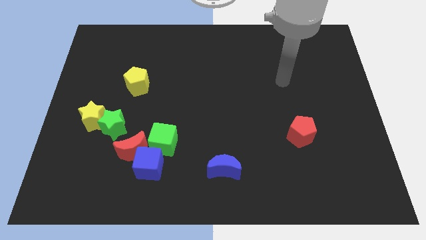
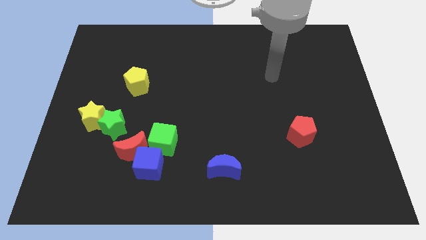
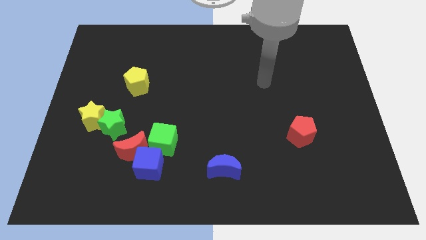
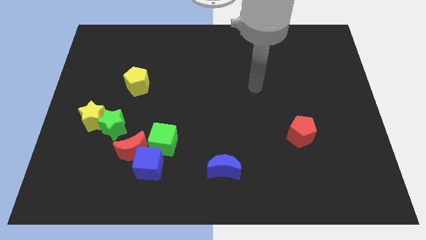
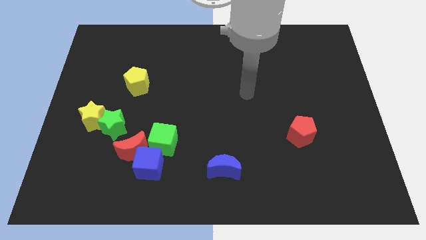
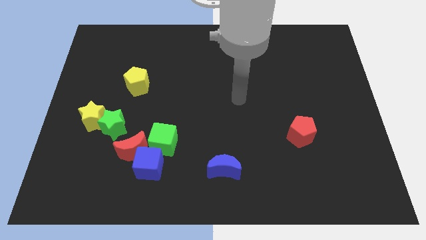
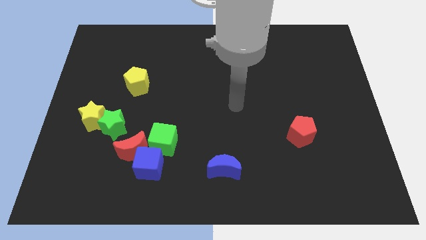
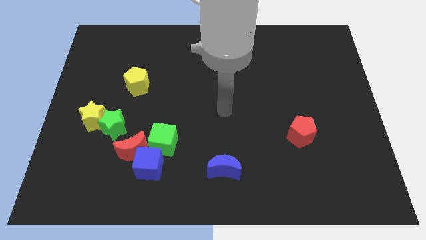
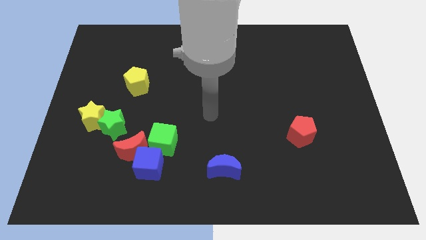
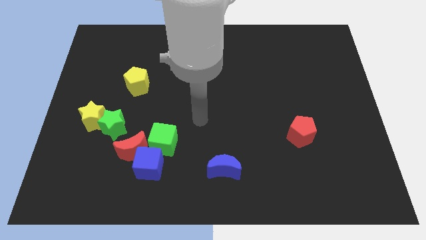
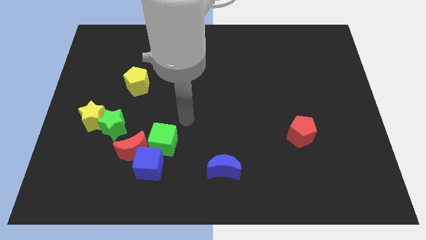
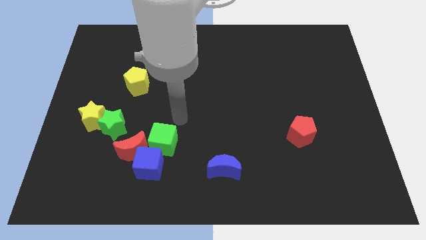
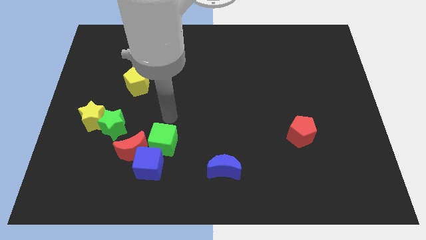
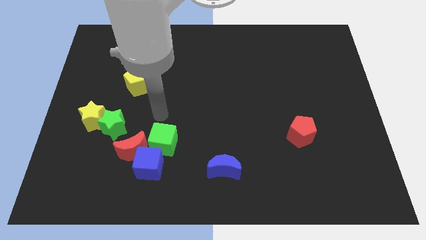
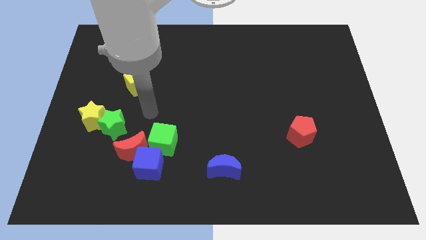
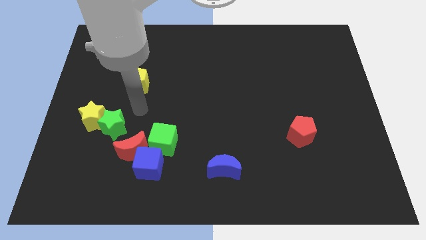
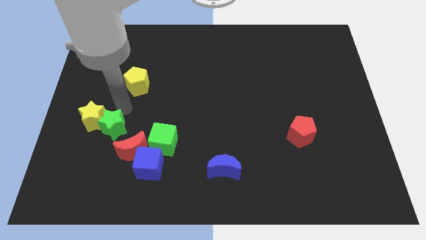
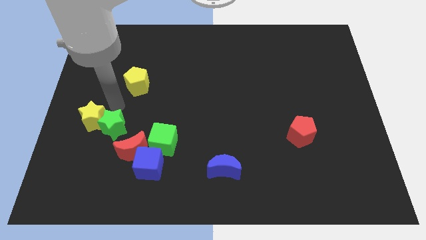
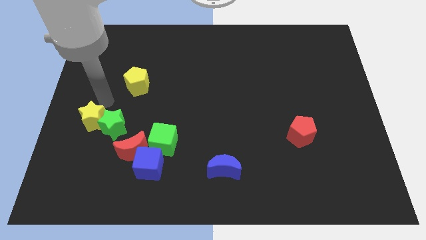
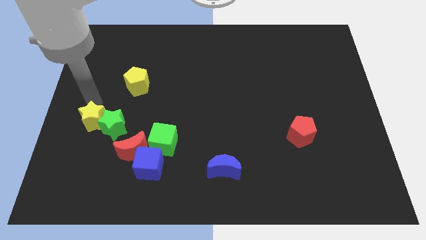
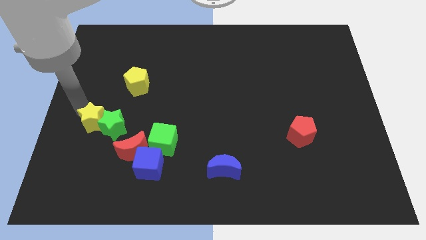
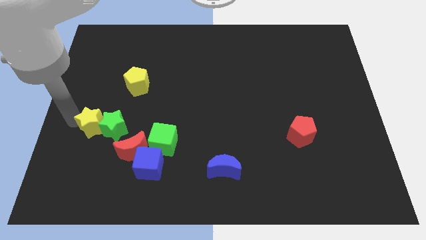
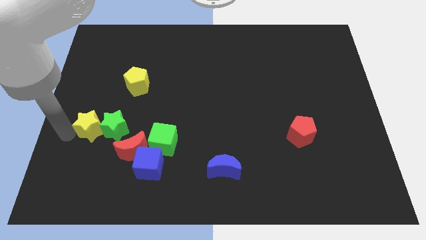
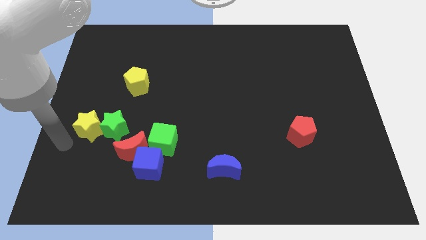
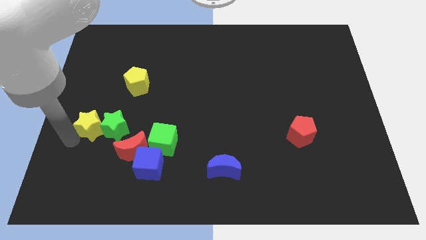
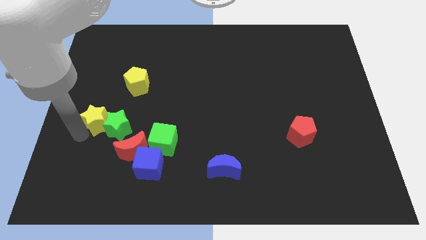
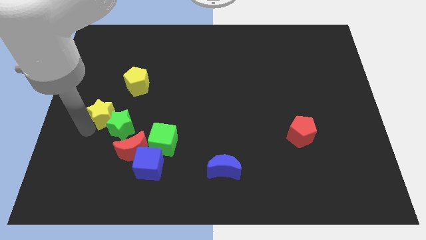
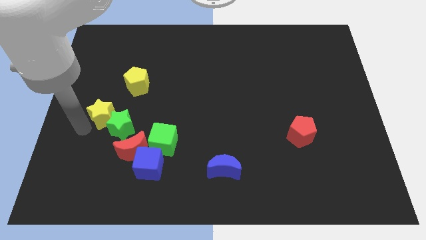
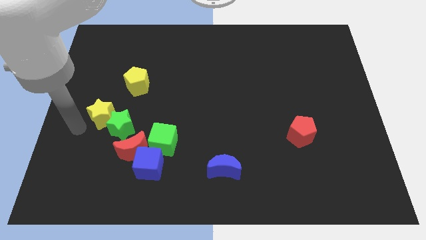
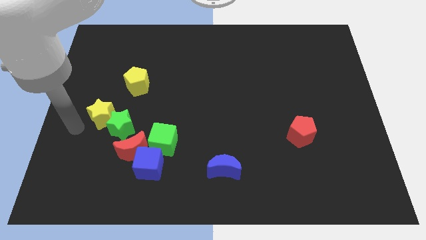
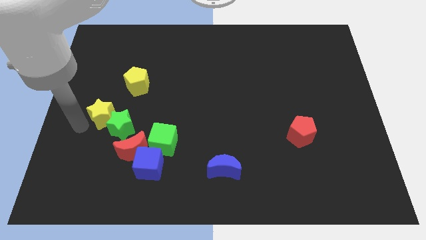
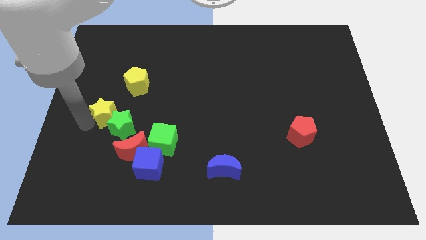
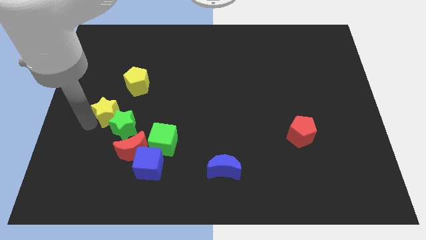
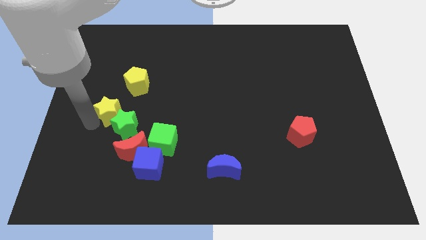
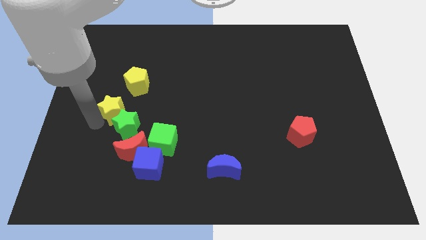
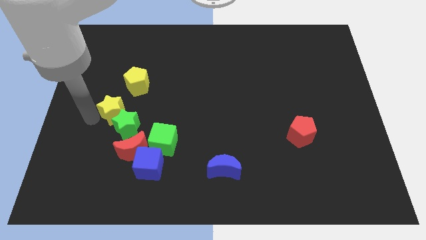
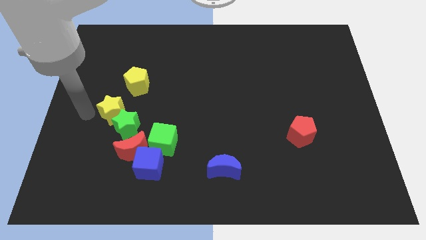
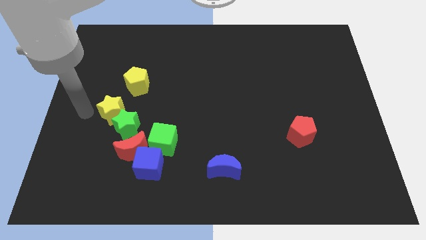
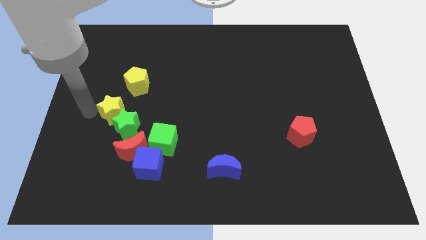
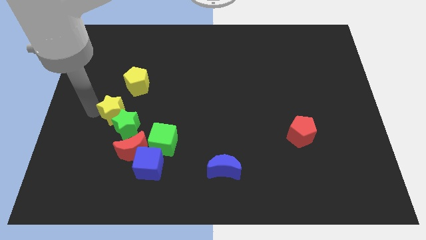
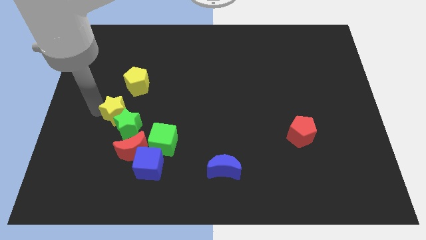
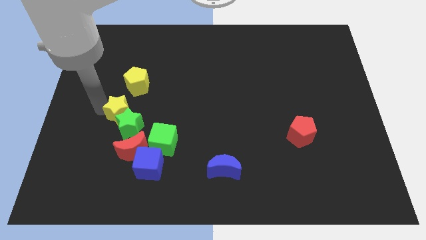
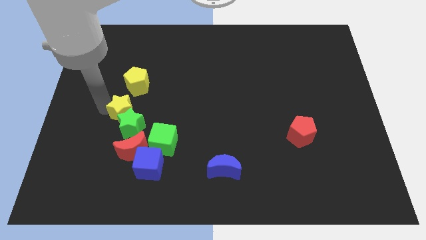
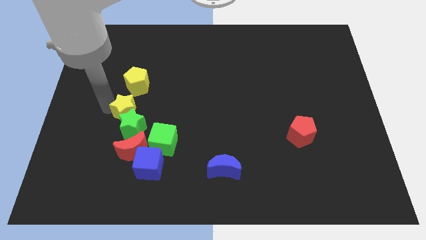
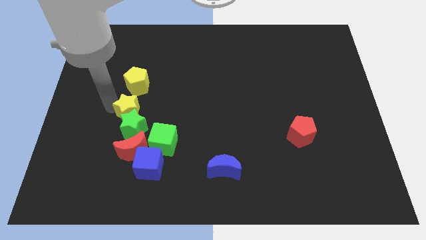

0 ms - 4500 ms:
slightly move the yellow star right

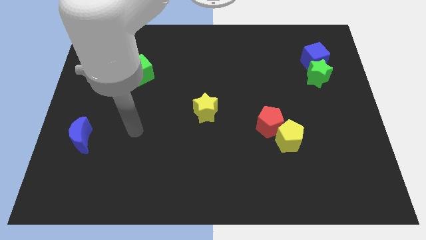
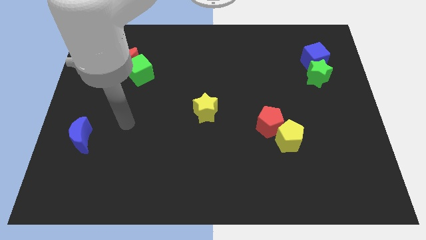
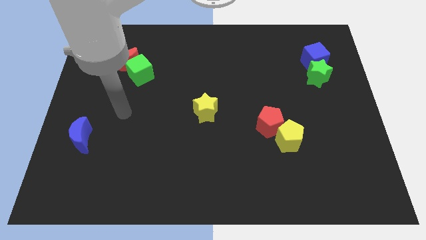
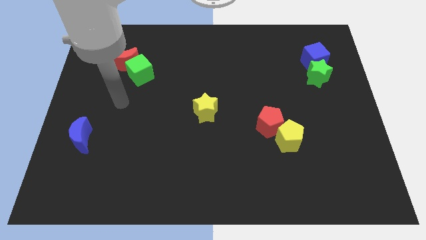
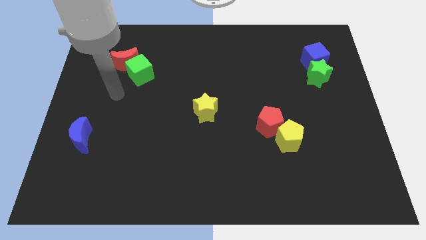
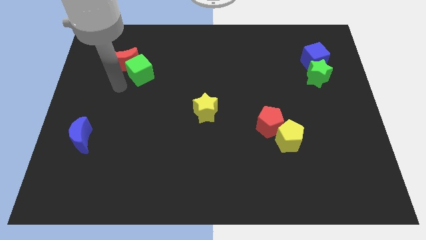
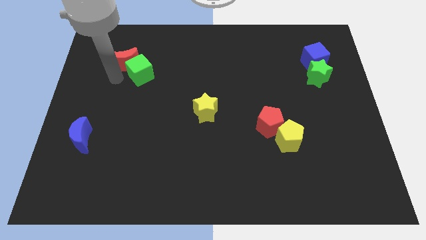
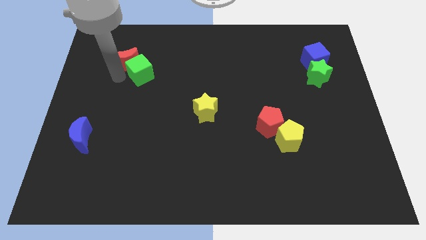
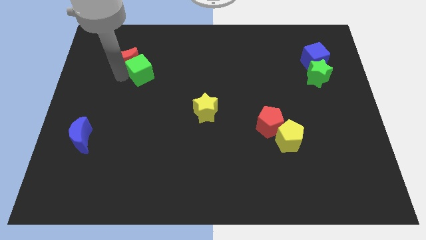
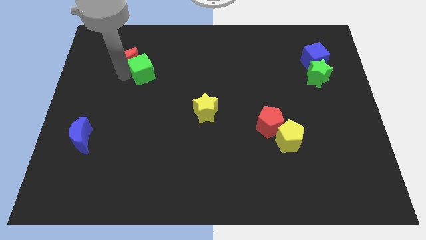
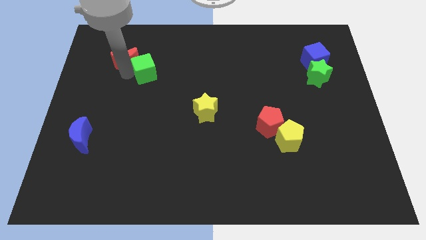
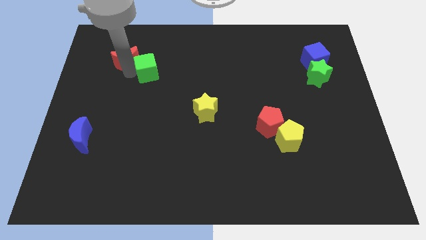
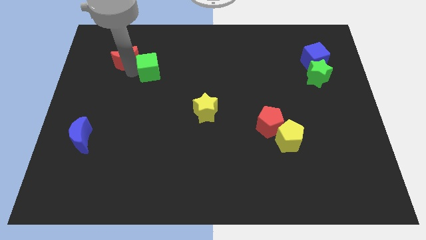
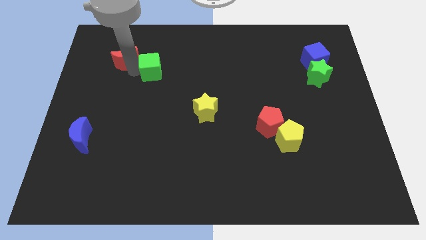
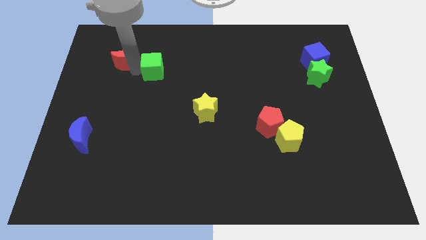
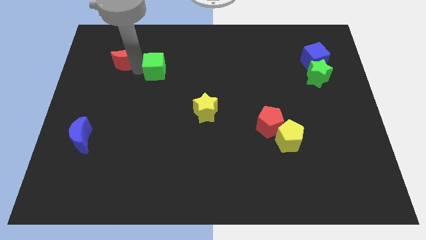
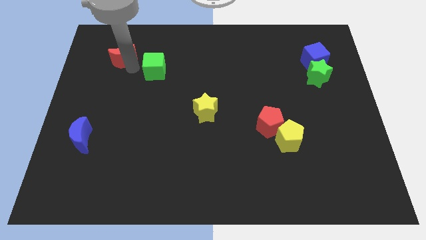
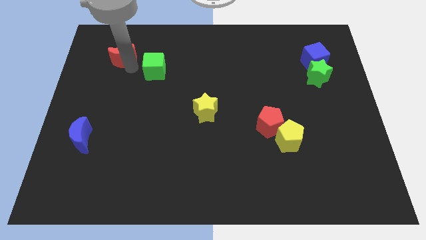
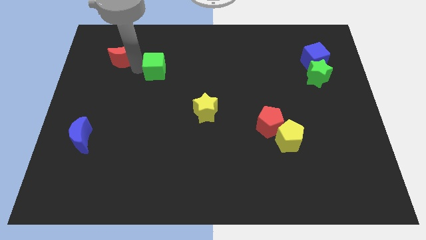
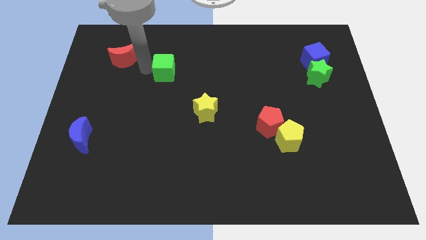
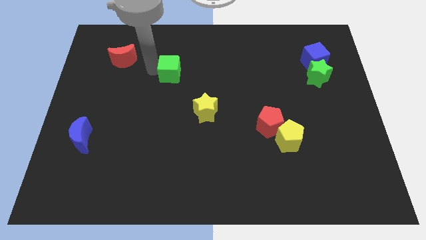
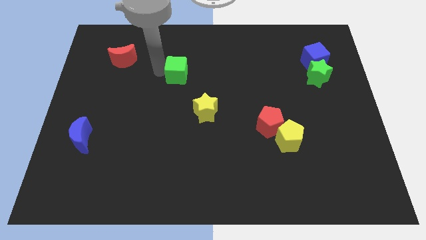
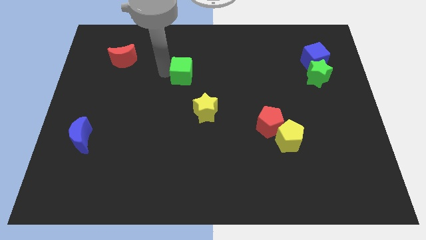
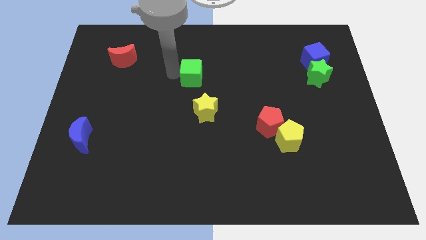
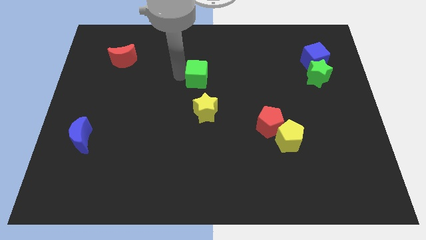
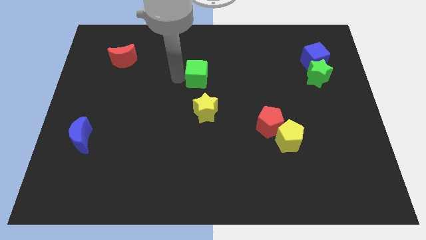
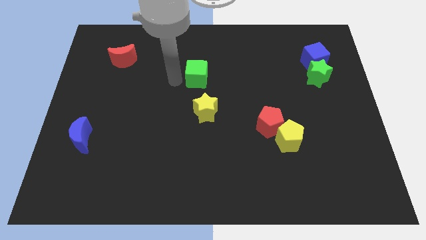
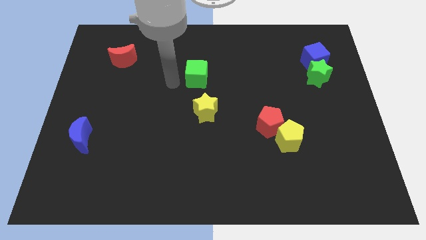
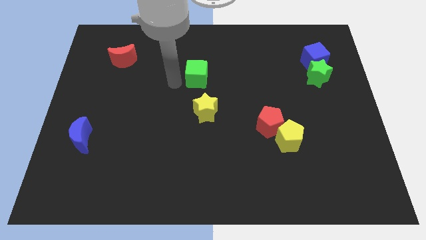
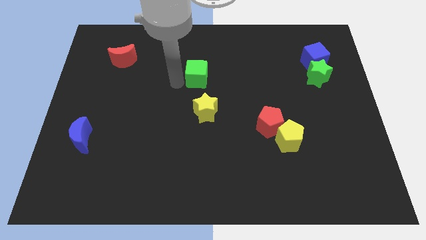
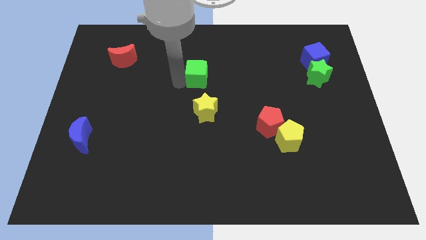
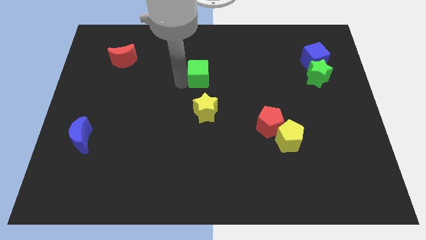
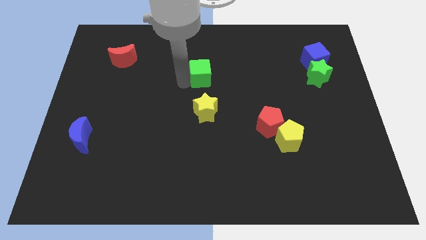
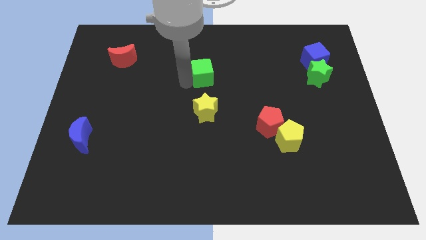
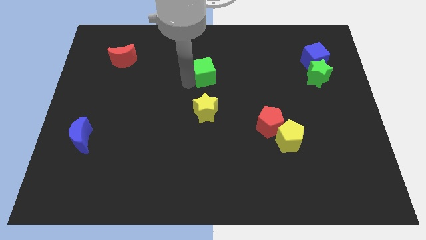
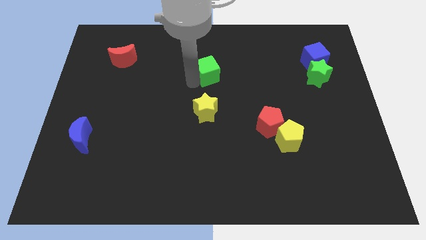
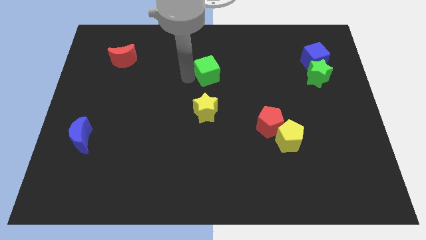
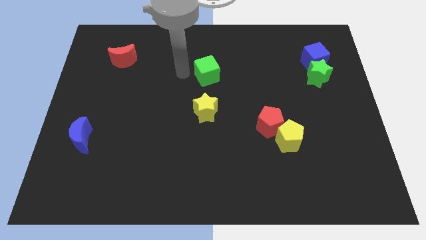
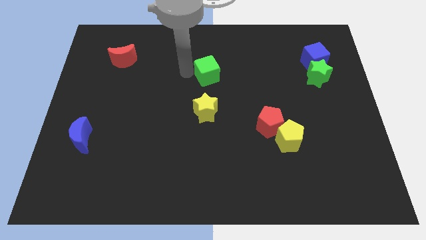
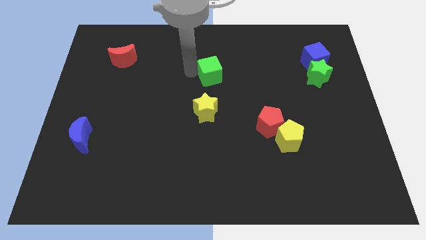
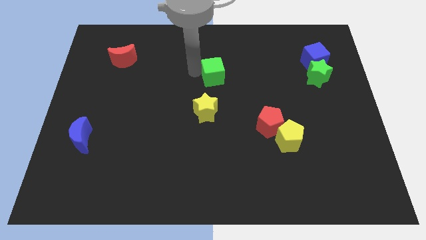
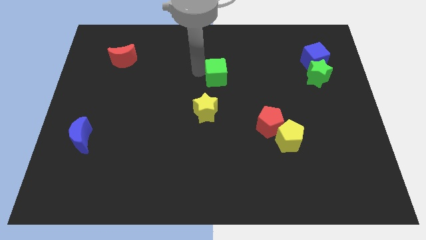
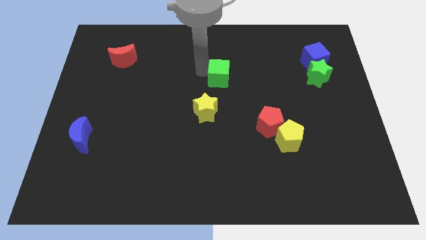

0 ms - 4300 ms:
push the green cube to the right
